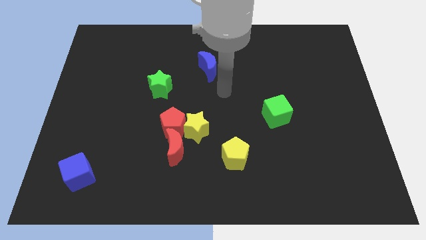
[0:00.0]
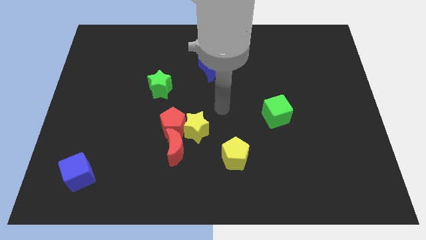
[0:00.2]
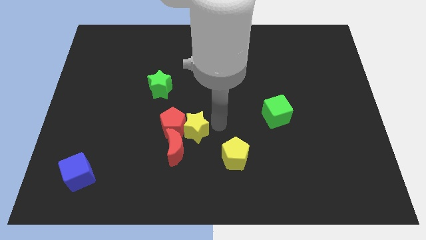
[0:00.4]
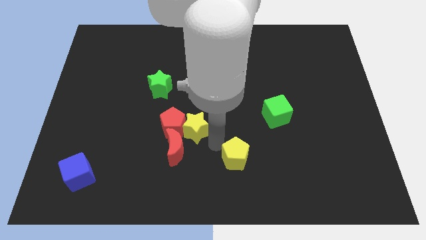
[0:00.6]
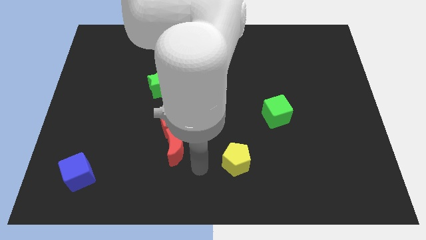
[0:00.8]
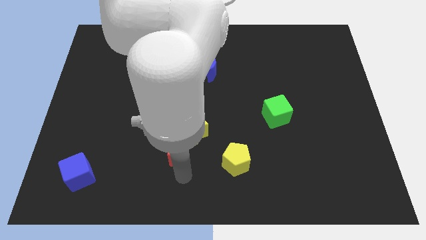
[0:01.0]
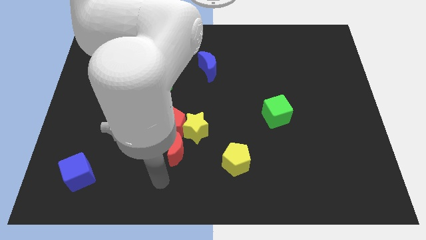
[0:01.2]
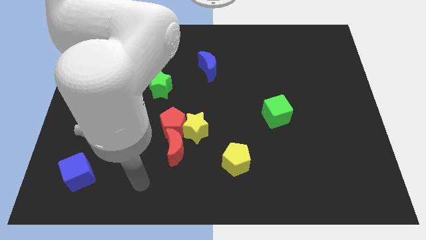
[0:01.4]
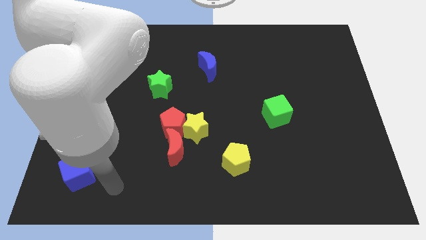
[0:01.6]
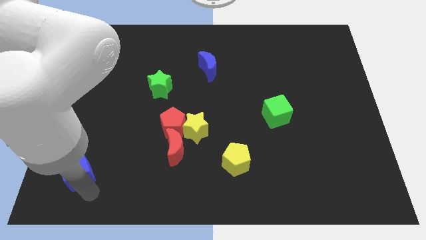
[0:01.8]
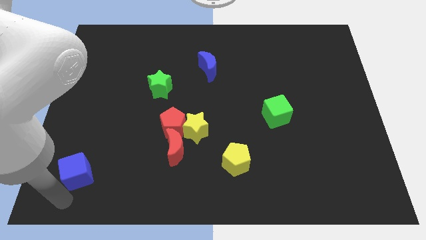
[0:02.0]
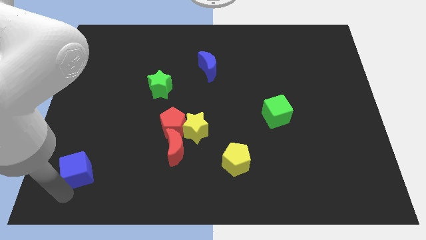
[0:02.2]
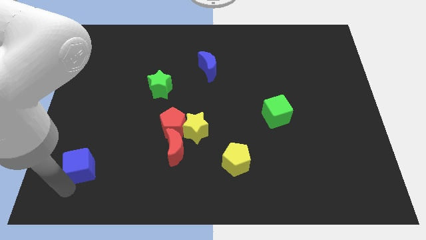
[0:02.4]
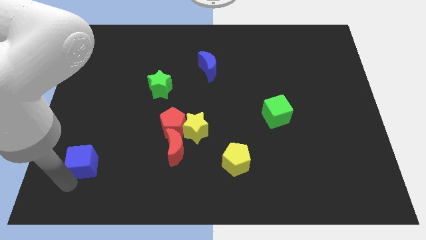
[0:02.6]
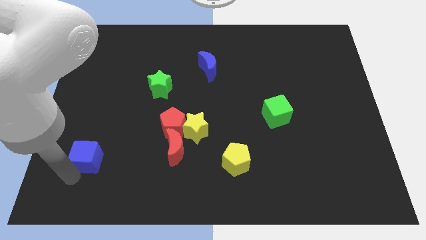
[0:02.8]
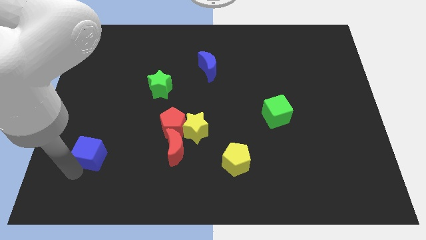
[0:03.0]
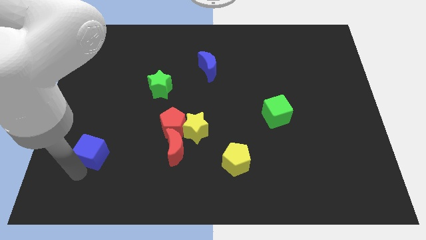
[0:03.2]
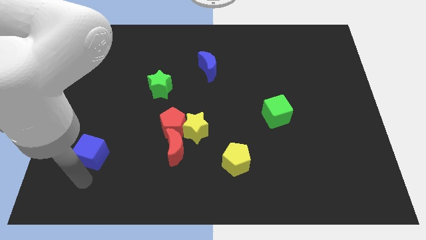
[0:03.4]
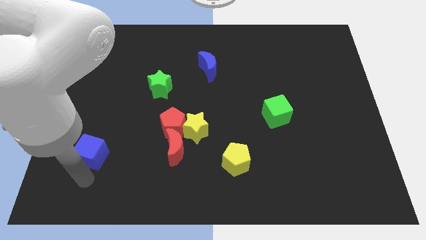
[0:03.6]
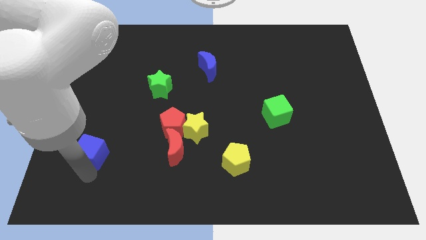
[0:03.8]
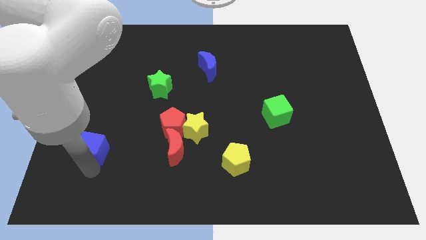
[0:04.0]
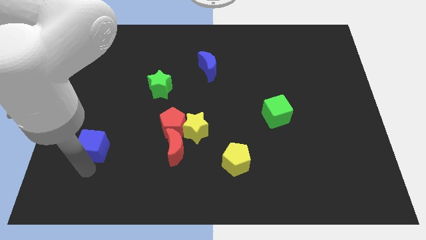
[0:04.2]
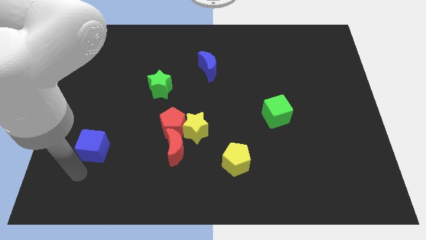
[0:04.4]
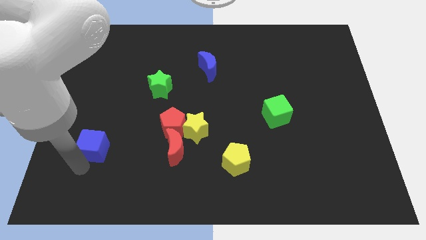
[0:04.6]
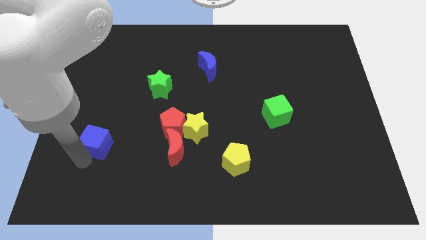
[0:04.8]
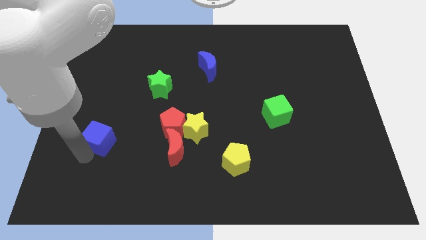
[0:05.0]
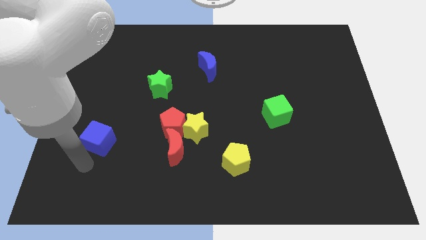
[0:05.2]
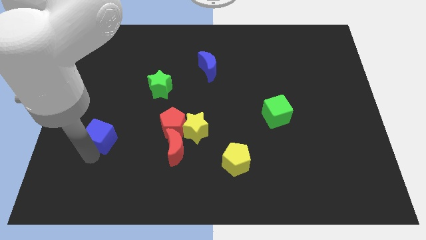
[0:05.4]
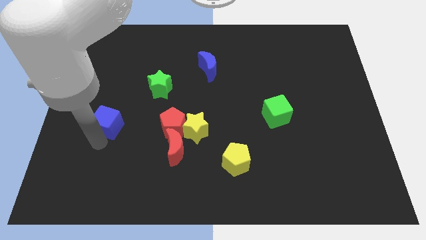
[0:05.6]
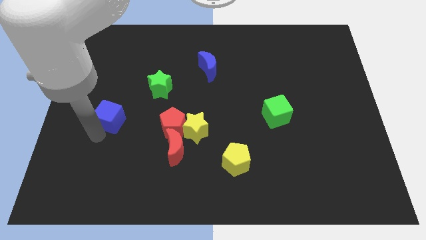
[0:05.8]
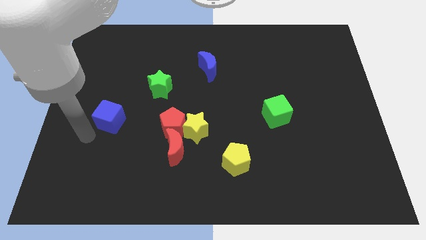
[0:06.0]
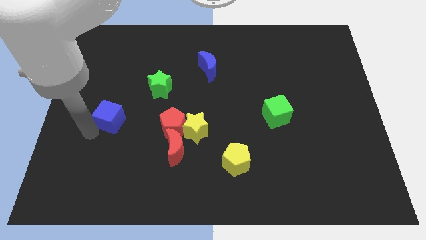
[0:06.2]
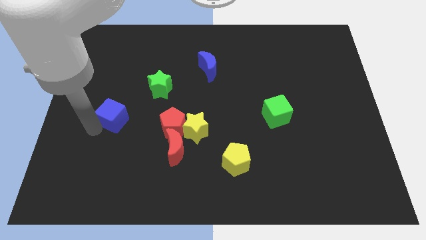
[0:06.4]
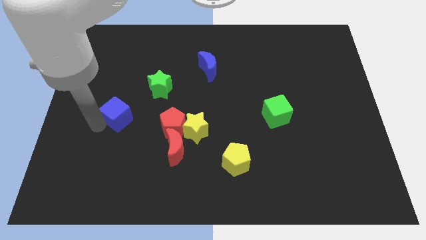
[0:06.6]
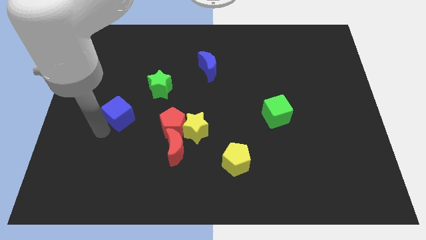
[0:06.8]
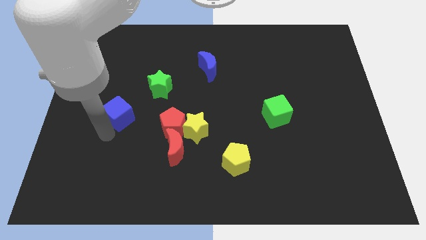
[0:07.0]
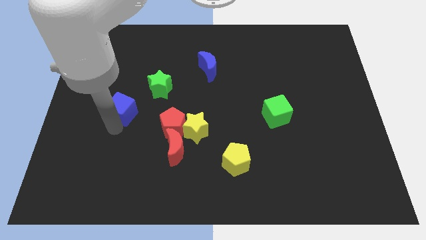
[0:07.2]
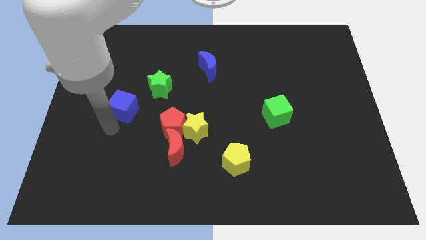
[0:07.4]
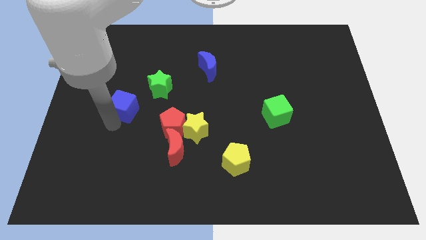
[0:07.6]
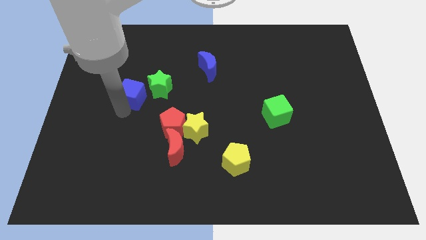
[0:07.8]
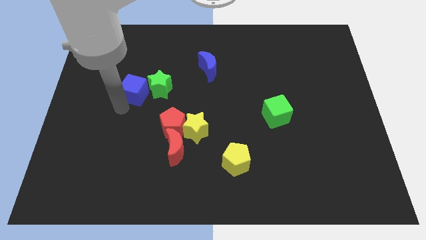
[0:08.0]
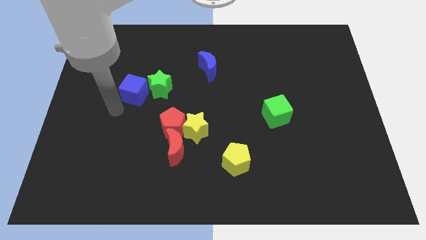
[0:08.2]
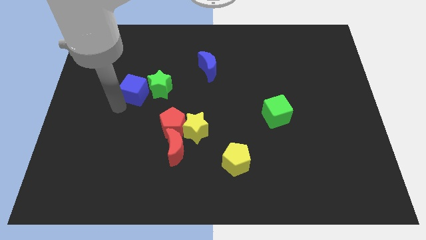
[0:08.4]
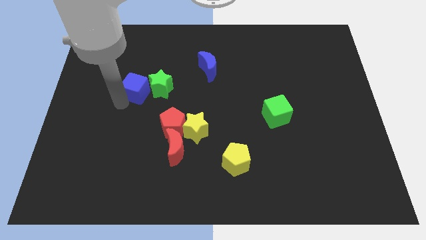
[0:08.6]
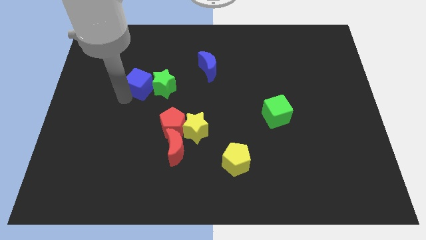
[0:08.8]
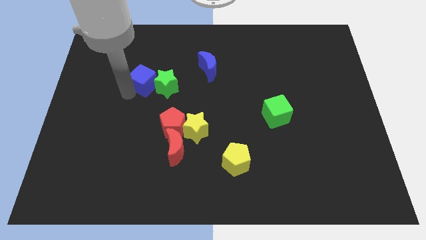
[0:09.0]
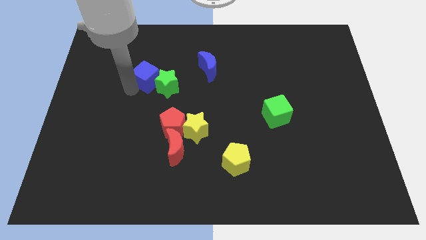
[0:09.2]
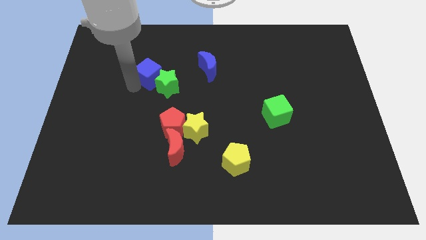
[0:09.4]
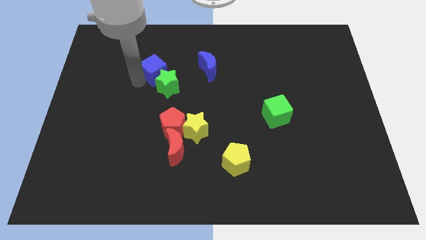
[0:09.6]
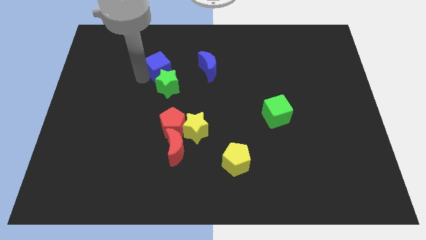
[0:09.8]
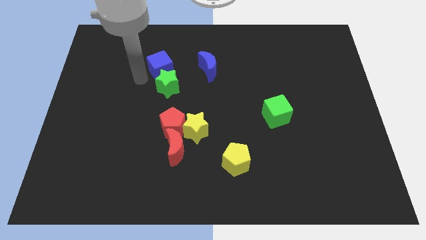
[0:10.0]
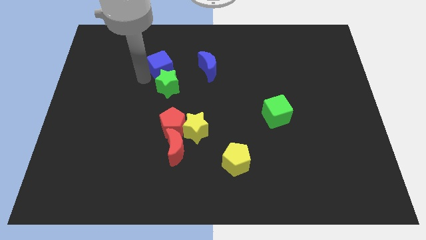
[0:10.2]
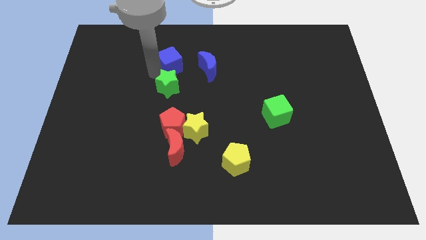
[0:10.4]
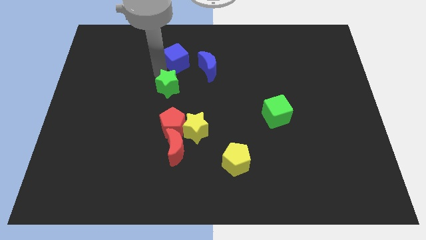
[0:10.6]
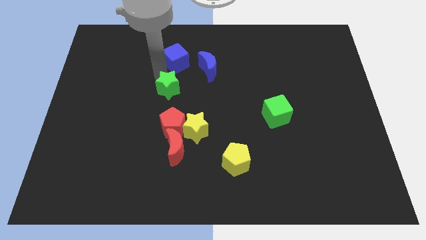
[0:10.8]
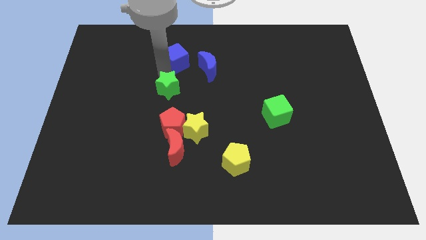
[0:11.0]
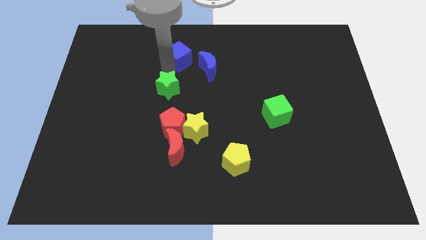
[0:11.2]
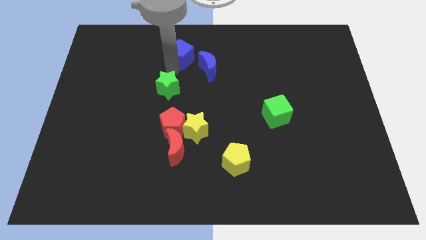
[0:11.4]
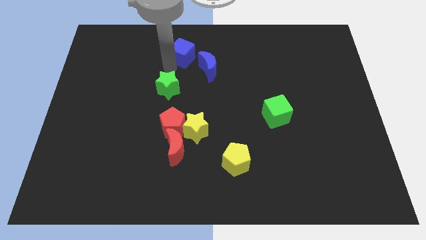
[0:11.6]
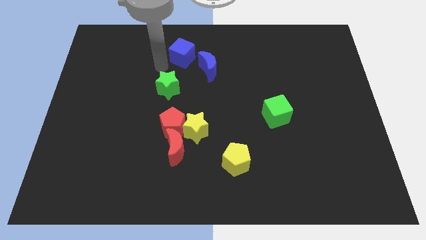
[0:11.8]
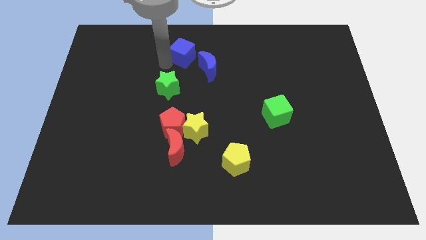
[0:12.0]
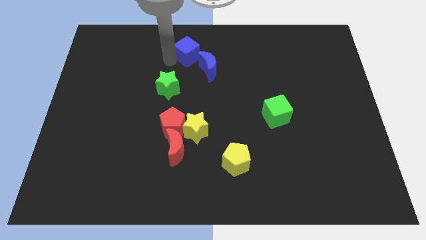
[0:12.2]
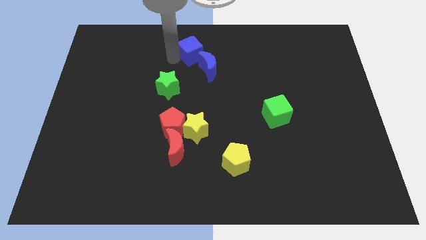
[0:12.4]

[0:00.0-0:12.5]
move the blue cube to the towards your base
